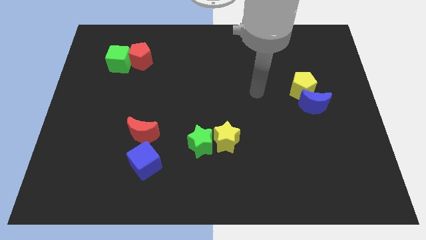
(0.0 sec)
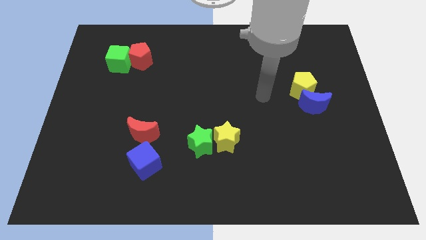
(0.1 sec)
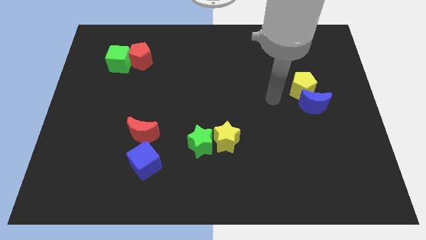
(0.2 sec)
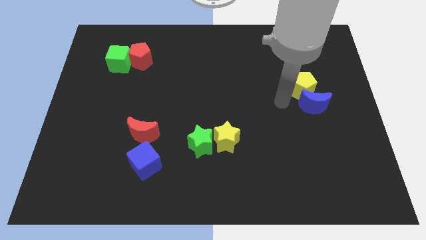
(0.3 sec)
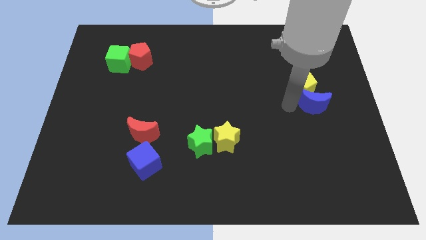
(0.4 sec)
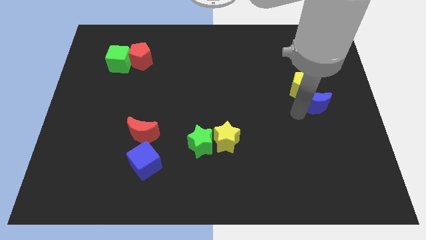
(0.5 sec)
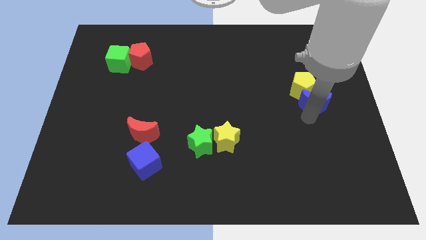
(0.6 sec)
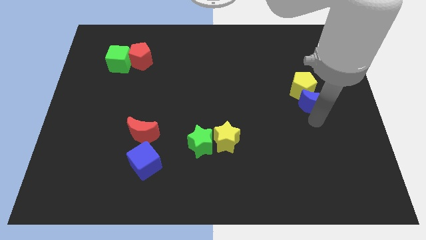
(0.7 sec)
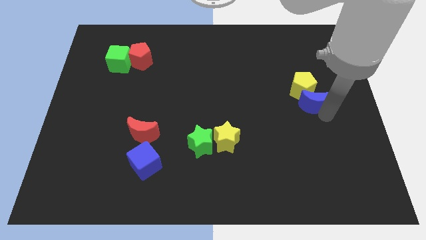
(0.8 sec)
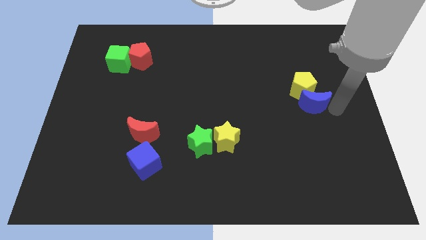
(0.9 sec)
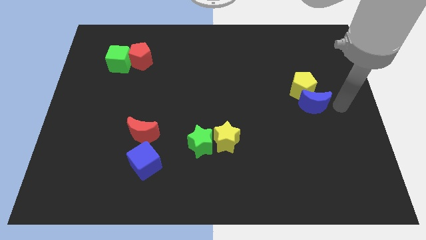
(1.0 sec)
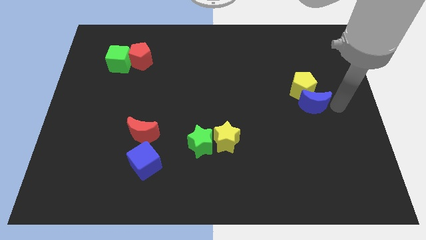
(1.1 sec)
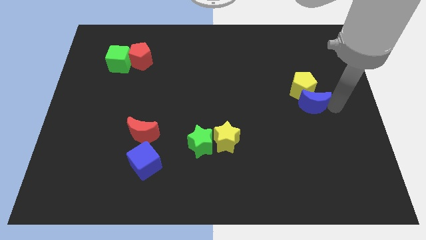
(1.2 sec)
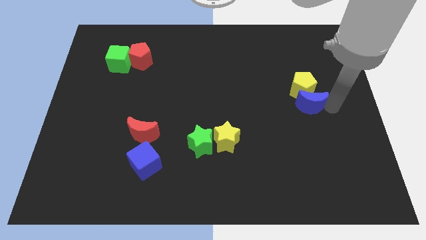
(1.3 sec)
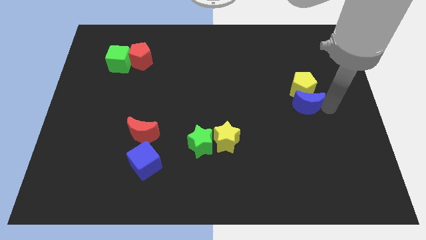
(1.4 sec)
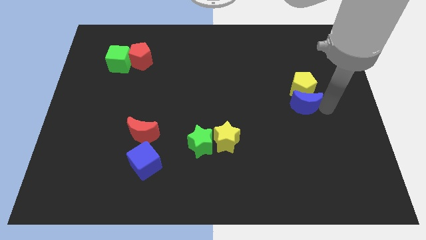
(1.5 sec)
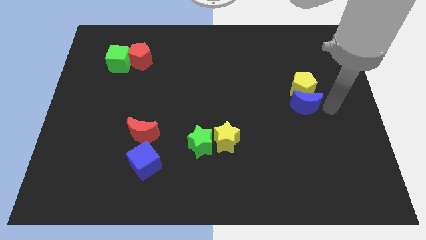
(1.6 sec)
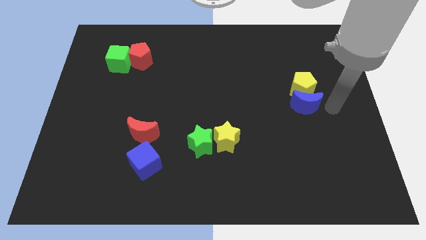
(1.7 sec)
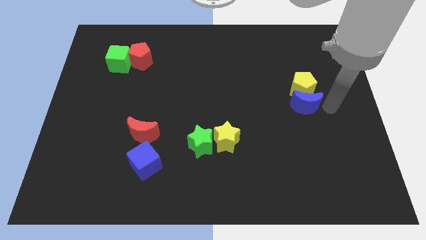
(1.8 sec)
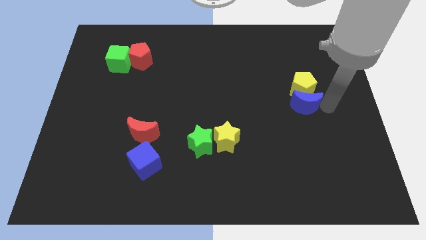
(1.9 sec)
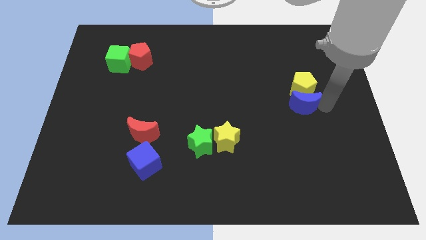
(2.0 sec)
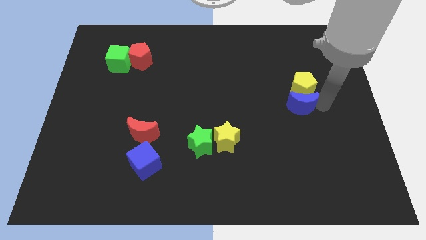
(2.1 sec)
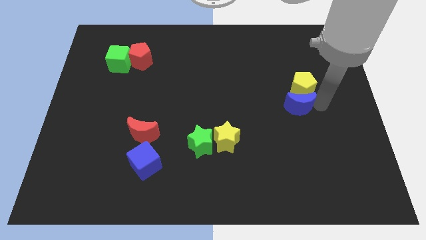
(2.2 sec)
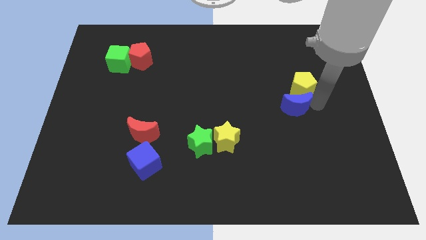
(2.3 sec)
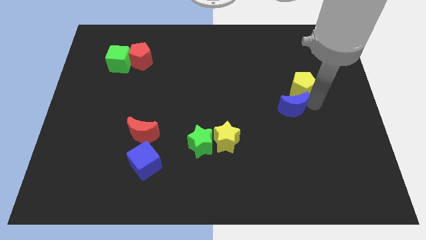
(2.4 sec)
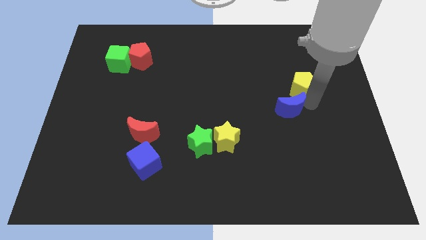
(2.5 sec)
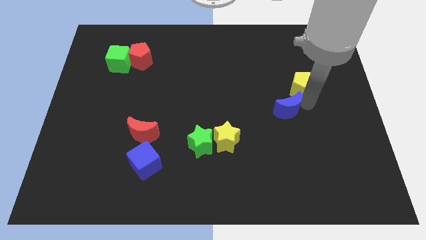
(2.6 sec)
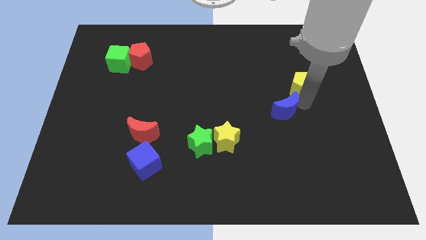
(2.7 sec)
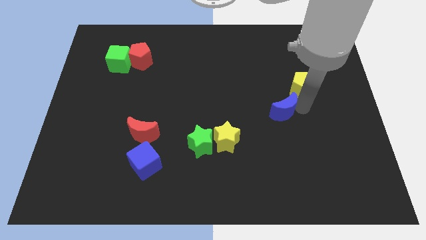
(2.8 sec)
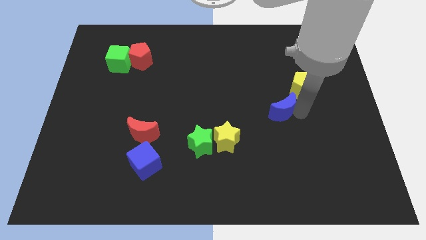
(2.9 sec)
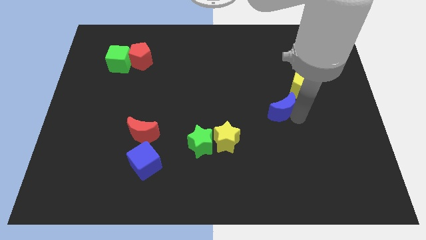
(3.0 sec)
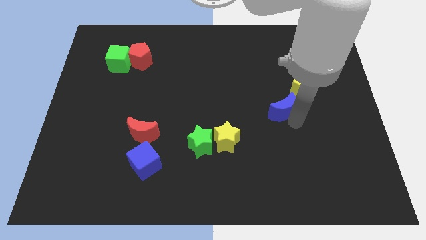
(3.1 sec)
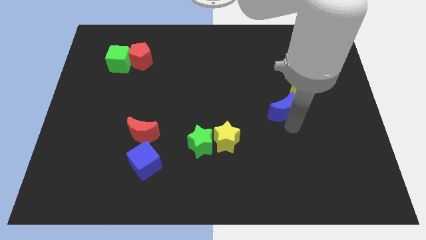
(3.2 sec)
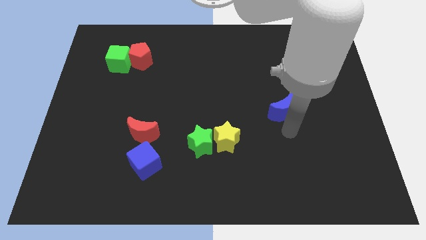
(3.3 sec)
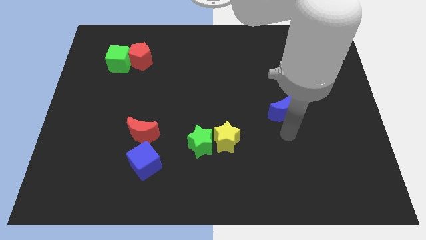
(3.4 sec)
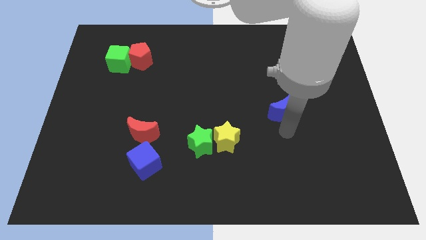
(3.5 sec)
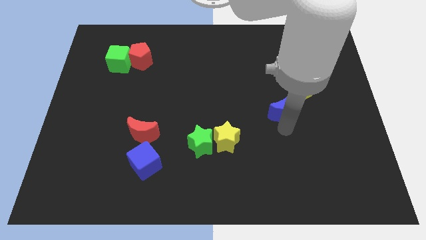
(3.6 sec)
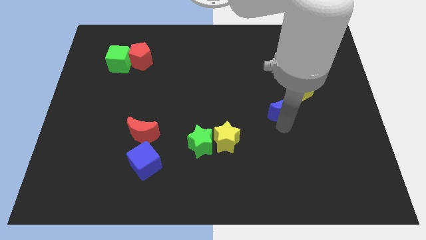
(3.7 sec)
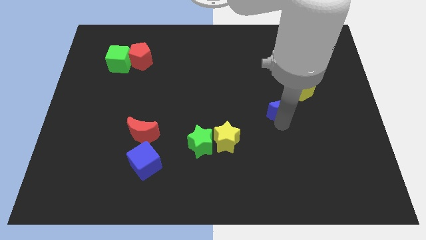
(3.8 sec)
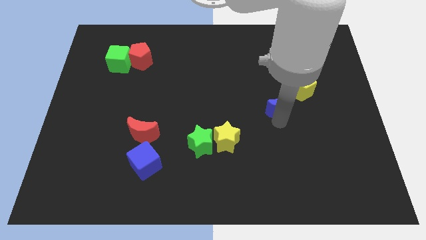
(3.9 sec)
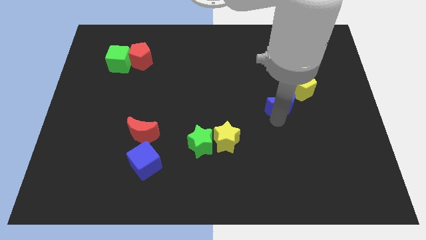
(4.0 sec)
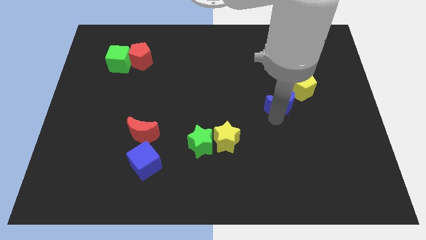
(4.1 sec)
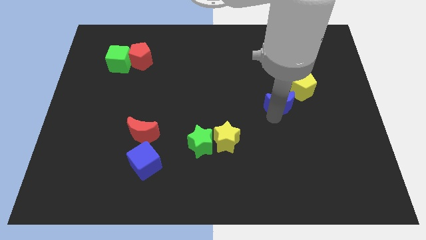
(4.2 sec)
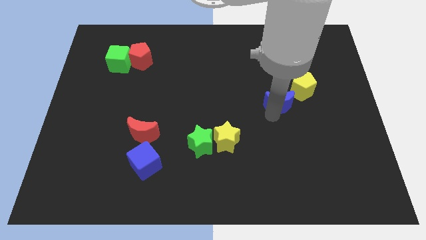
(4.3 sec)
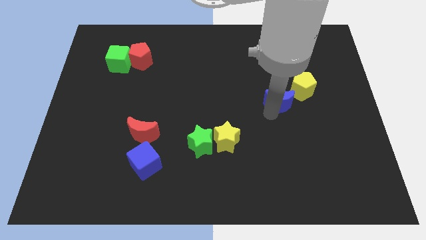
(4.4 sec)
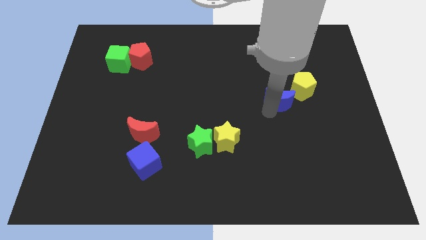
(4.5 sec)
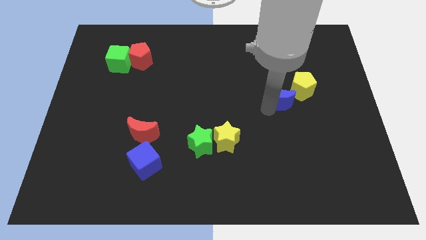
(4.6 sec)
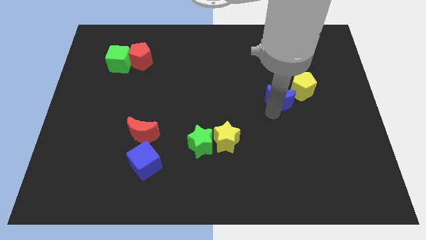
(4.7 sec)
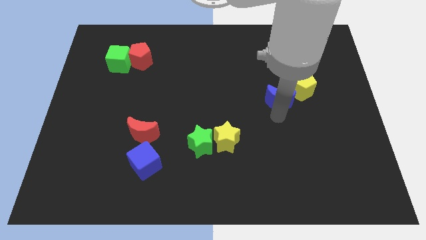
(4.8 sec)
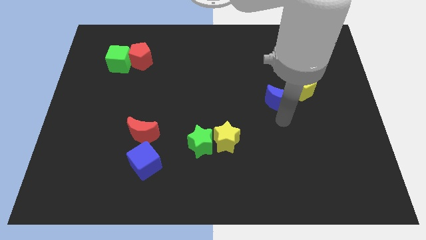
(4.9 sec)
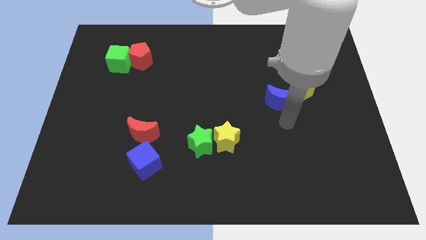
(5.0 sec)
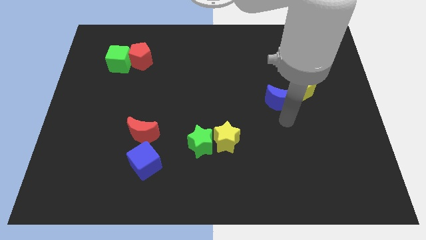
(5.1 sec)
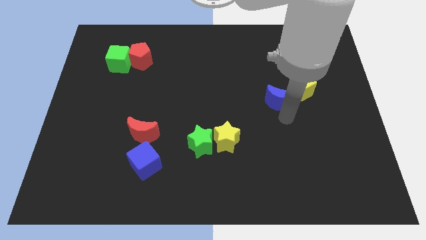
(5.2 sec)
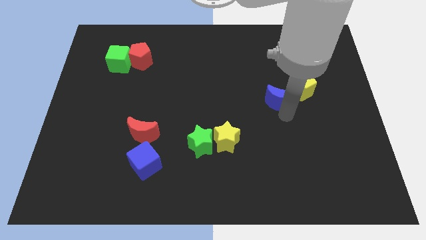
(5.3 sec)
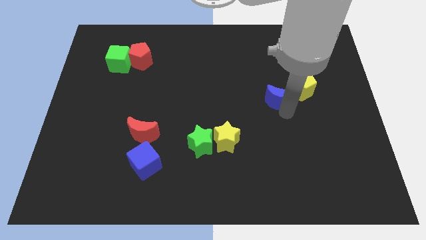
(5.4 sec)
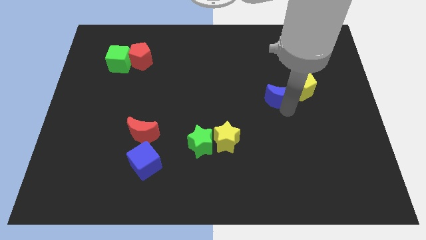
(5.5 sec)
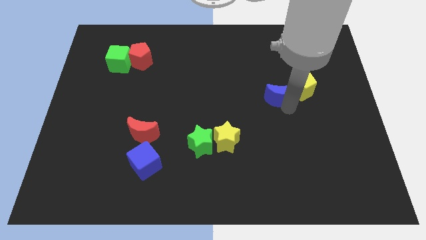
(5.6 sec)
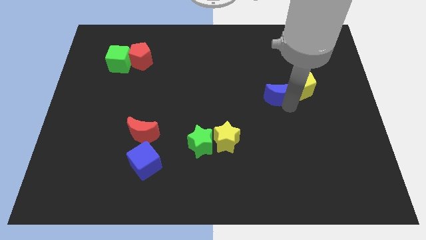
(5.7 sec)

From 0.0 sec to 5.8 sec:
slide the blue moon up and then left slightly

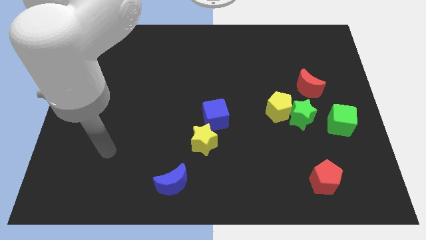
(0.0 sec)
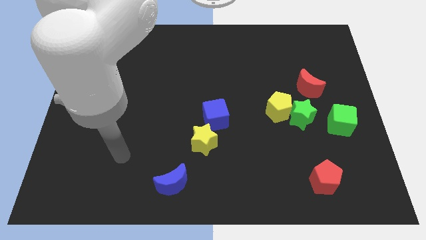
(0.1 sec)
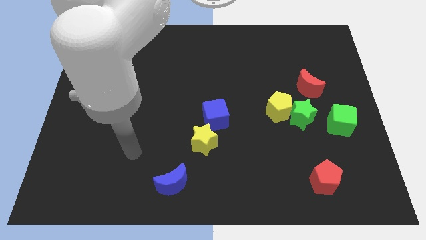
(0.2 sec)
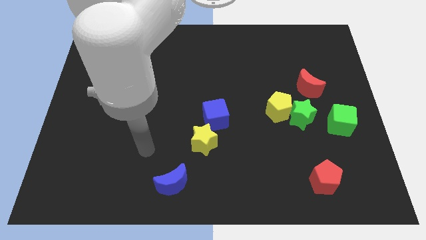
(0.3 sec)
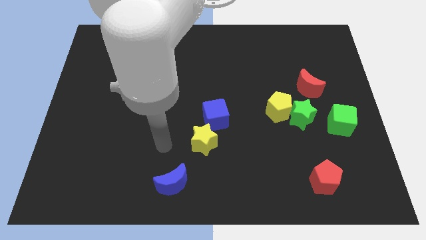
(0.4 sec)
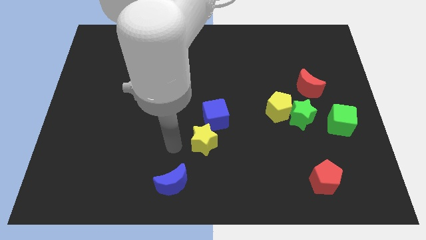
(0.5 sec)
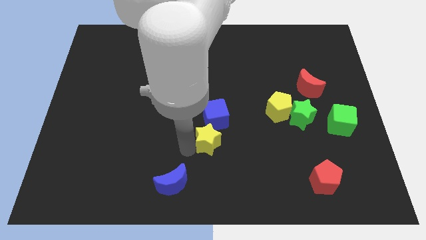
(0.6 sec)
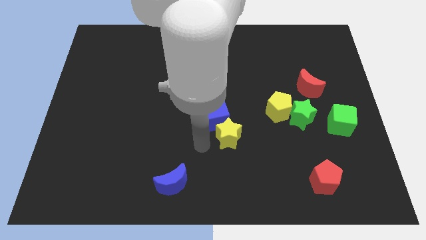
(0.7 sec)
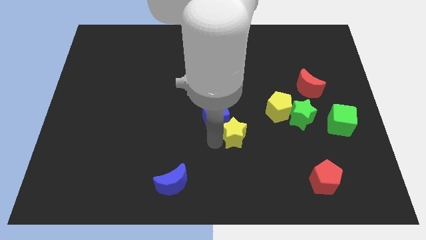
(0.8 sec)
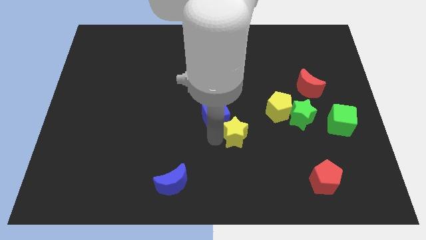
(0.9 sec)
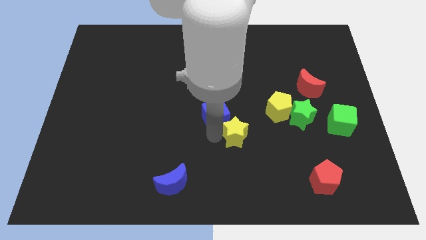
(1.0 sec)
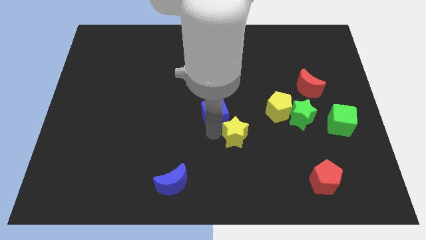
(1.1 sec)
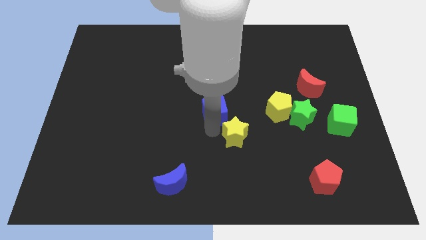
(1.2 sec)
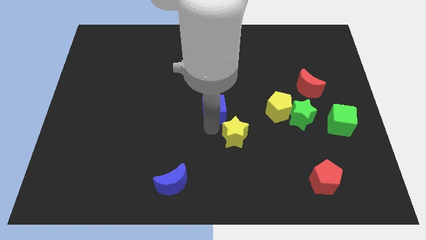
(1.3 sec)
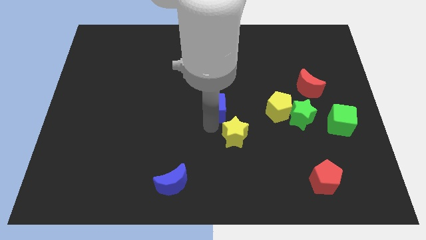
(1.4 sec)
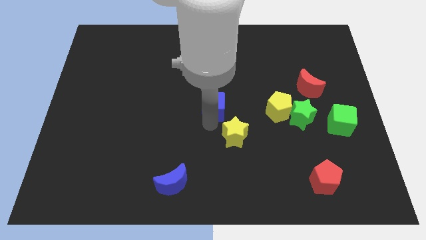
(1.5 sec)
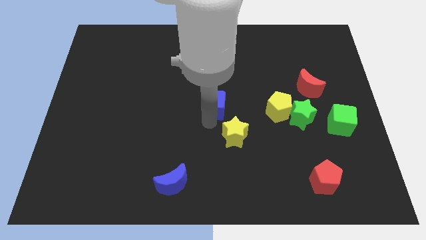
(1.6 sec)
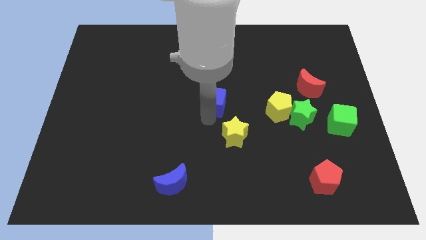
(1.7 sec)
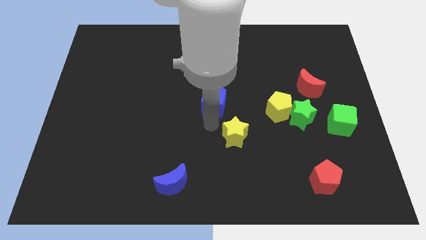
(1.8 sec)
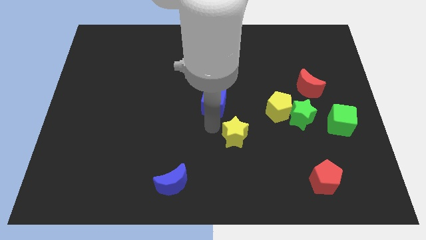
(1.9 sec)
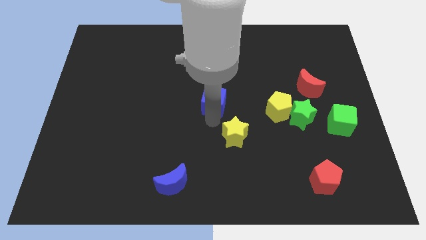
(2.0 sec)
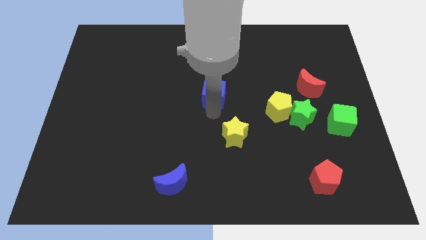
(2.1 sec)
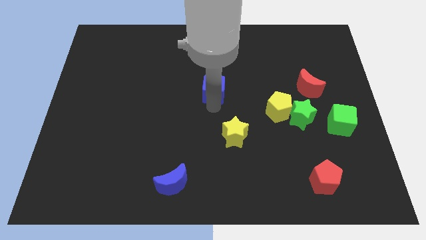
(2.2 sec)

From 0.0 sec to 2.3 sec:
push the blue cube slightly up
